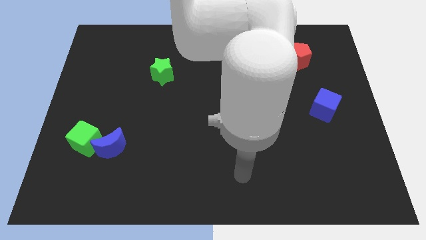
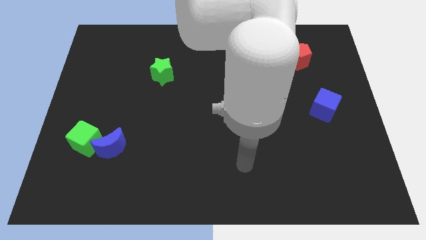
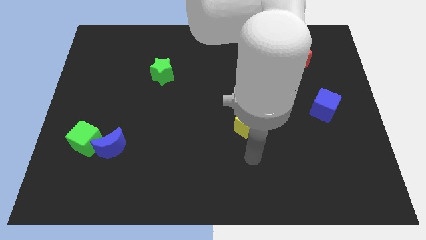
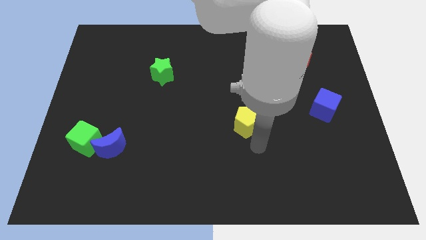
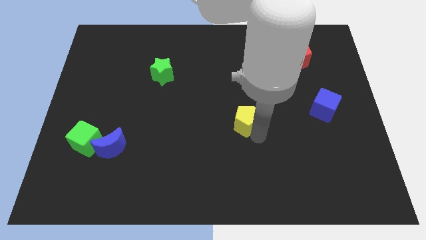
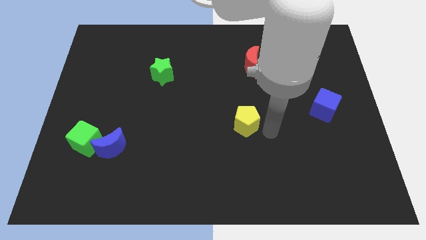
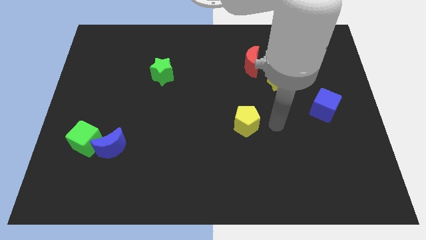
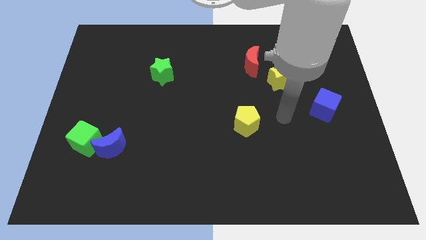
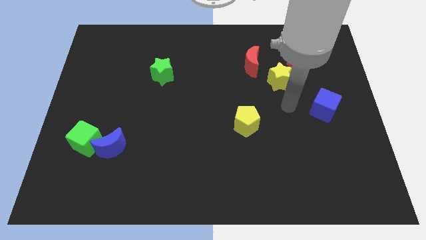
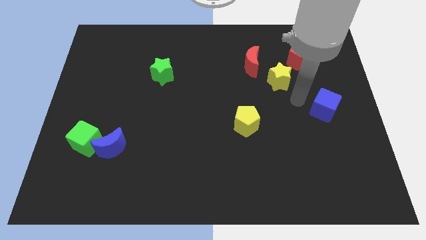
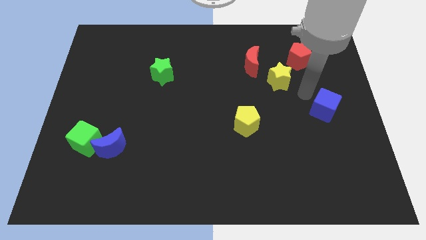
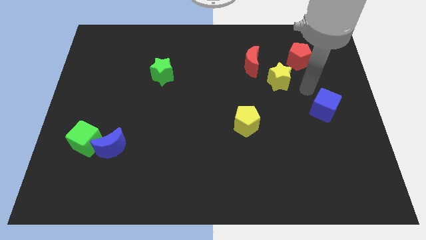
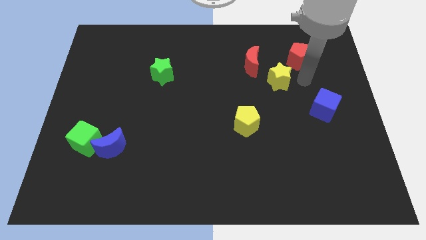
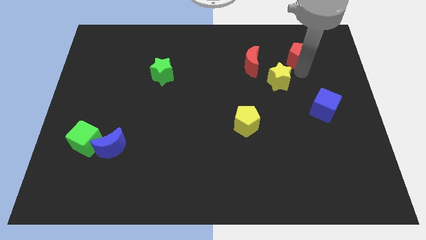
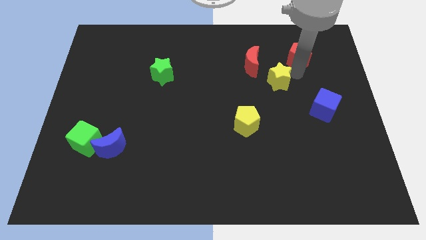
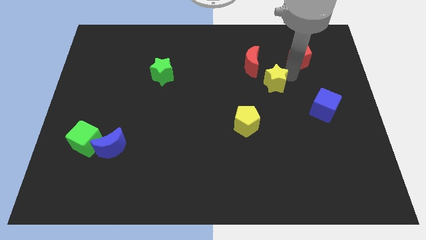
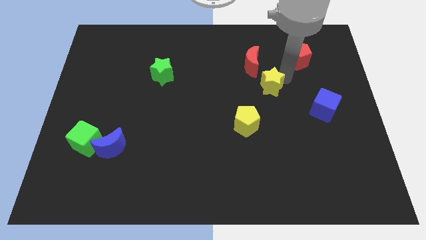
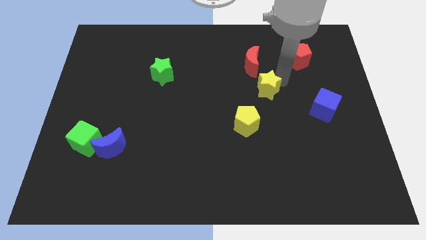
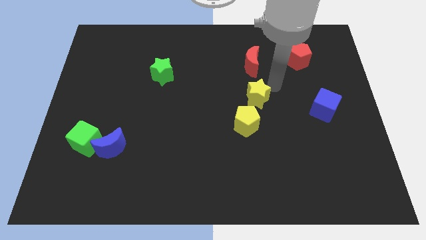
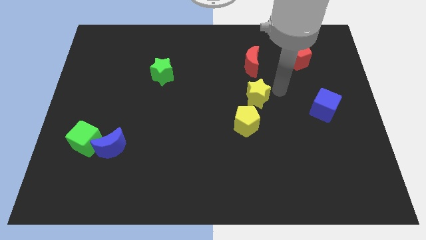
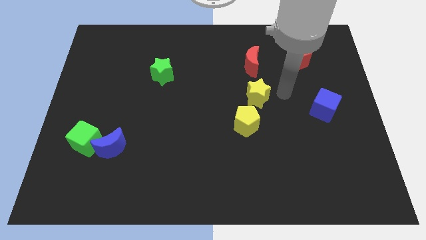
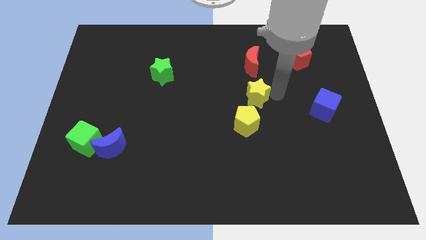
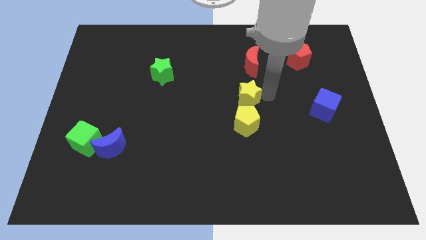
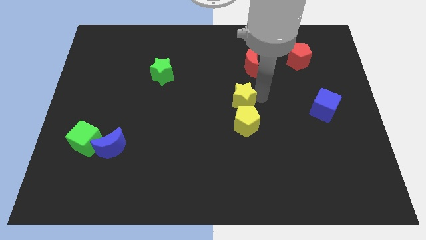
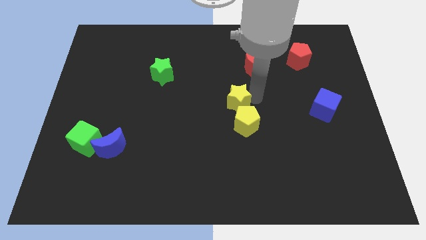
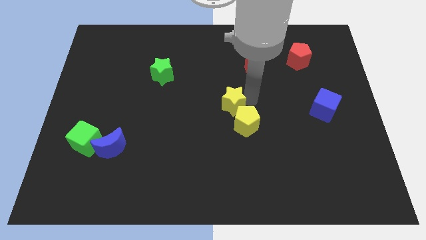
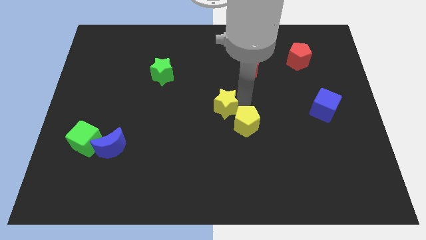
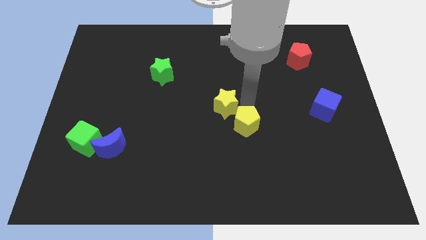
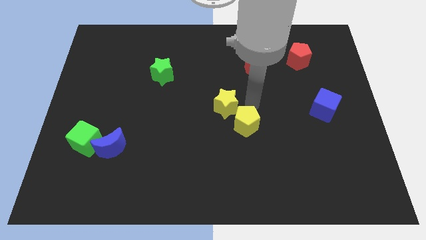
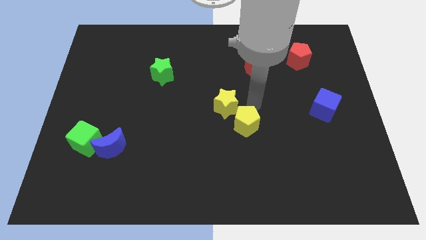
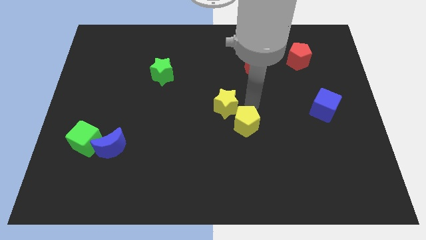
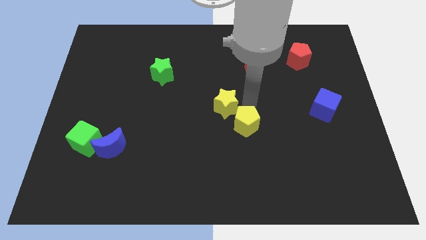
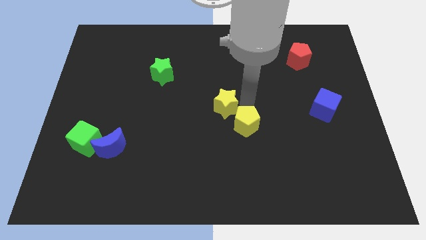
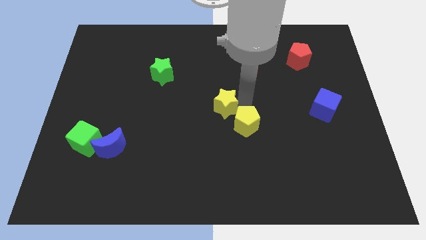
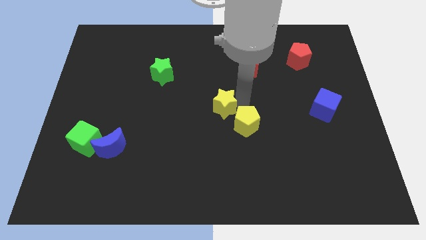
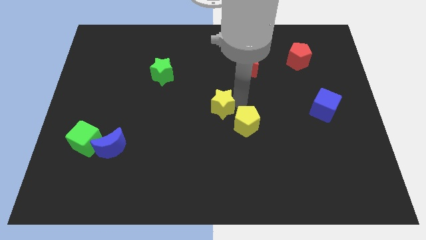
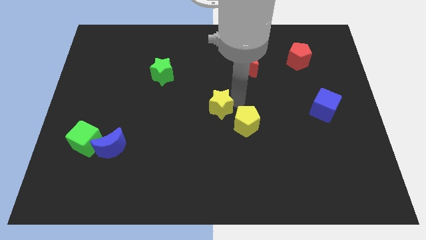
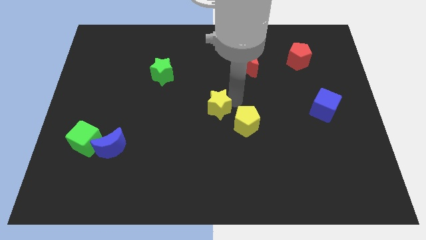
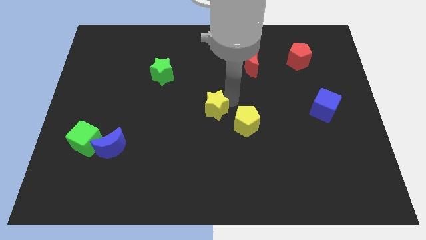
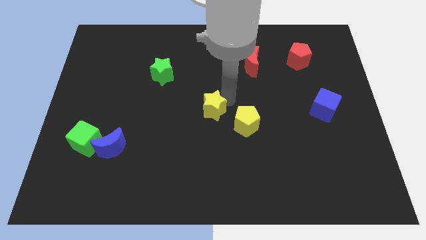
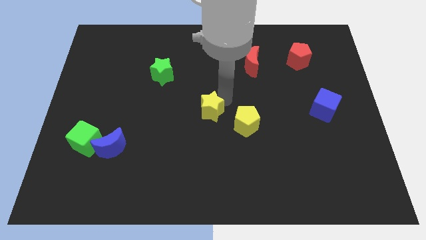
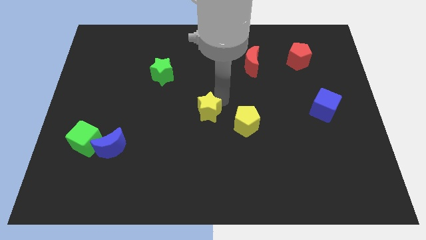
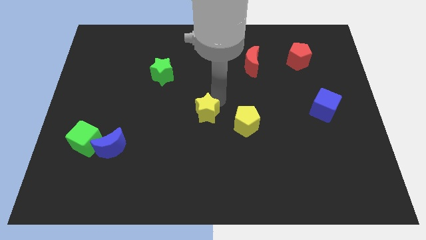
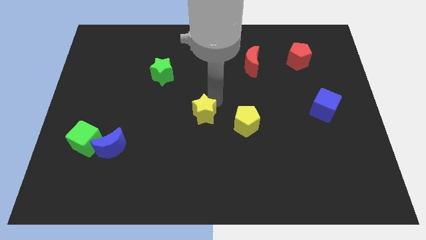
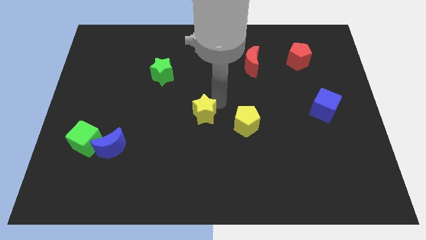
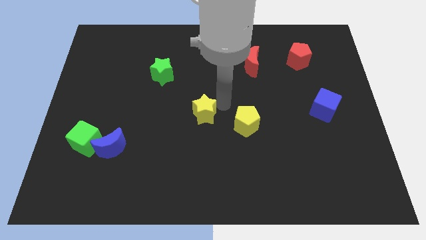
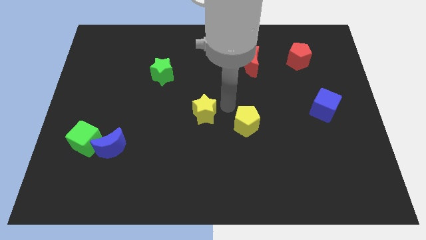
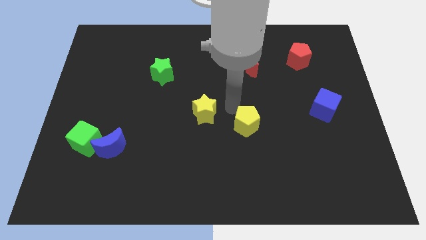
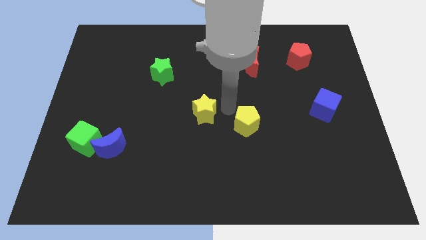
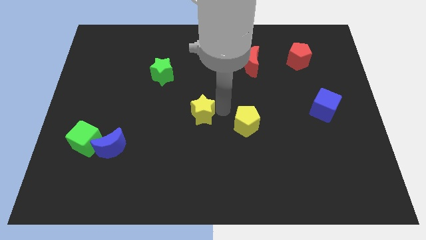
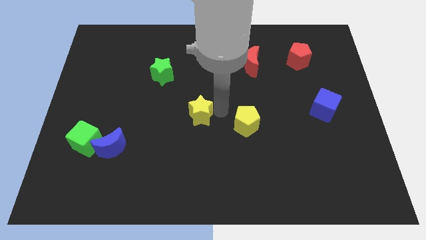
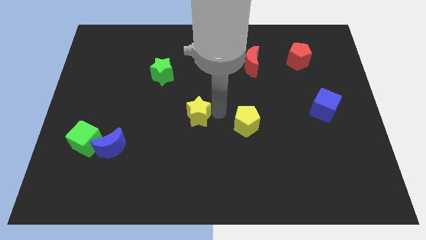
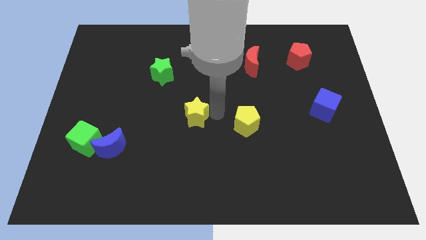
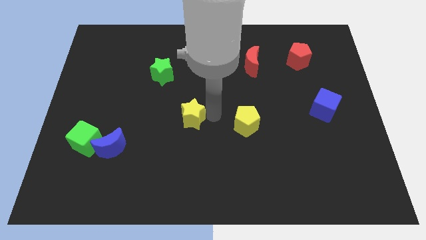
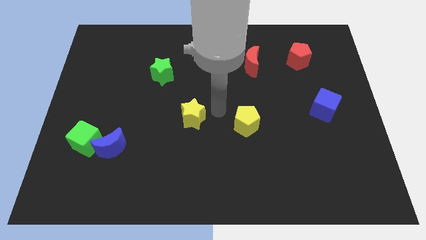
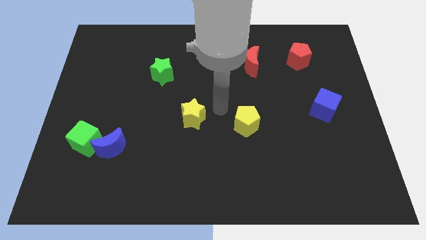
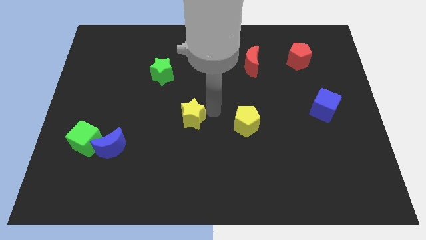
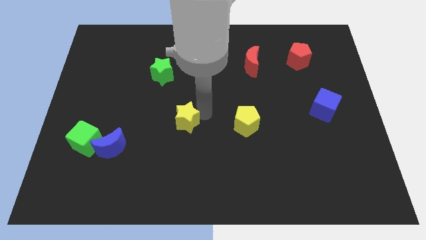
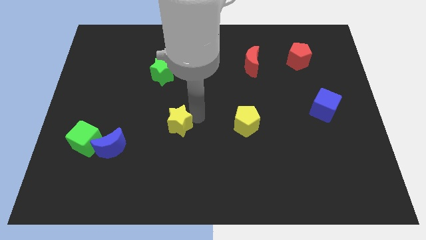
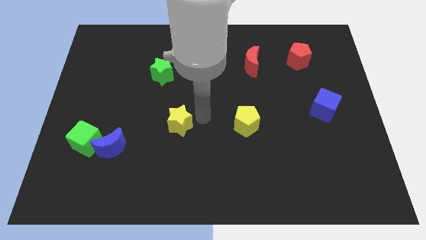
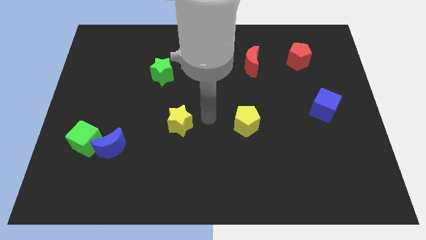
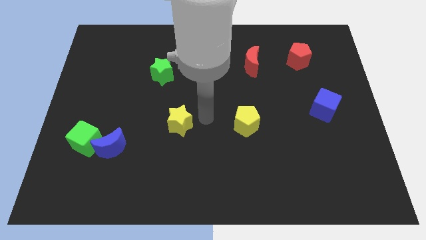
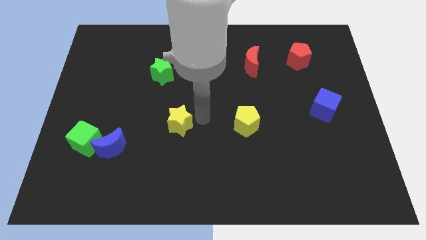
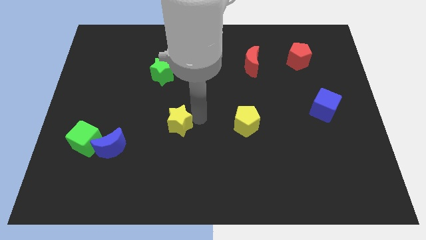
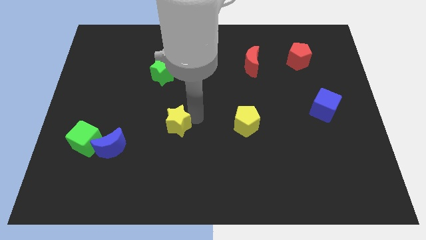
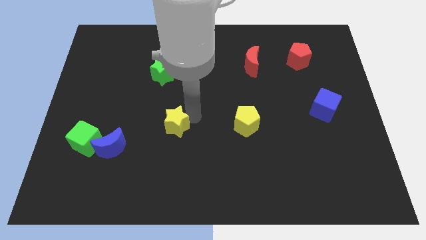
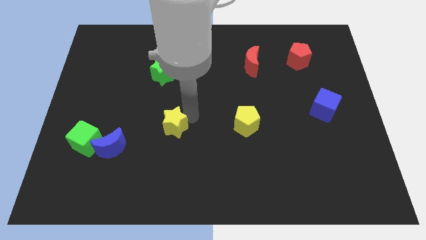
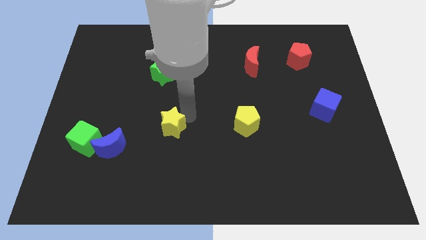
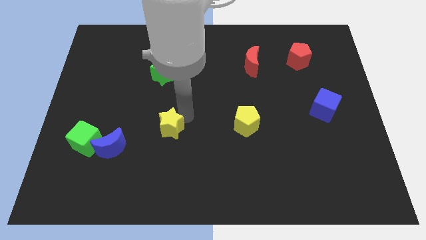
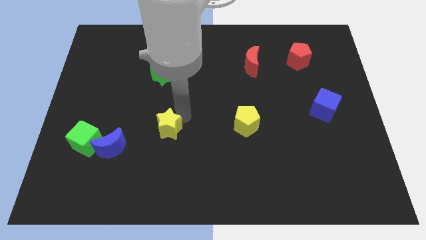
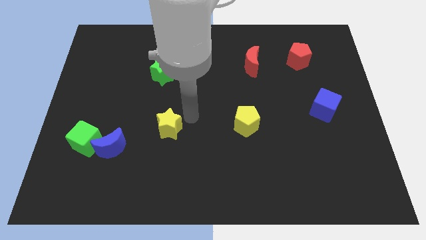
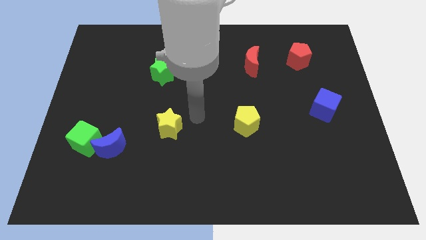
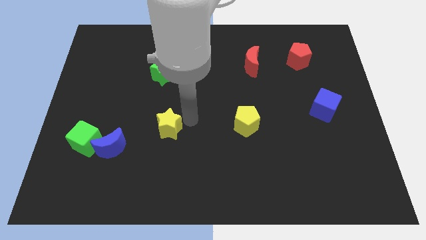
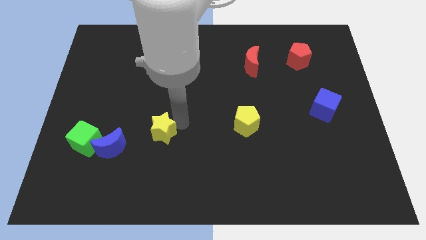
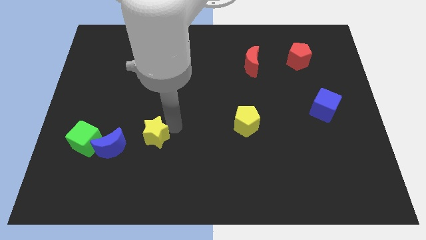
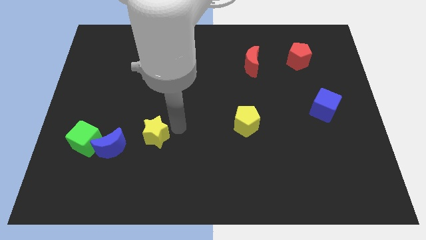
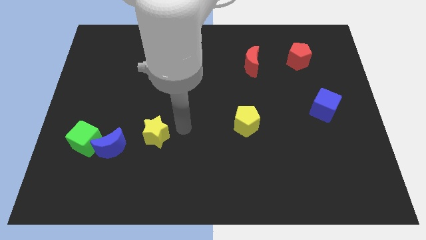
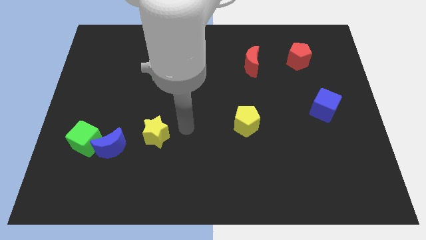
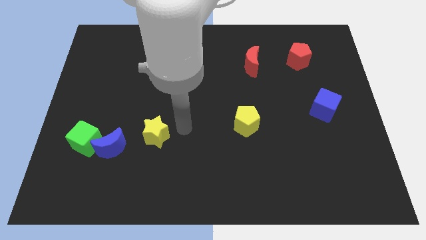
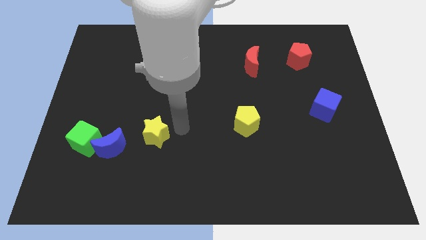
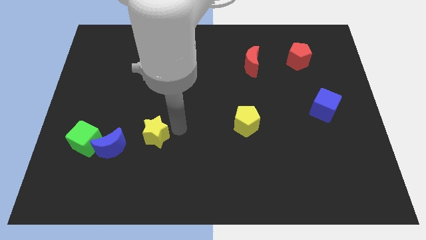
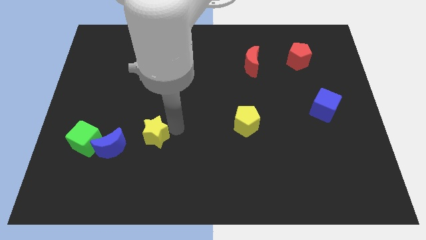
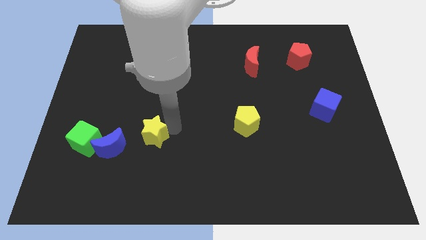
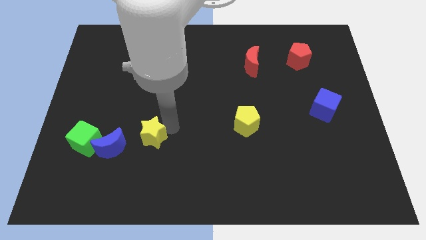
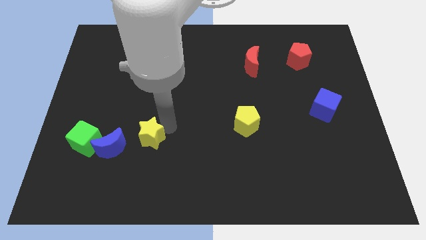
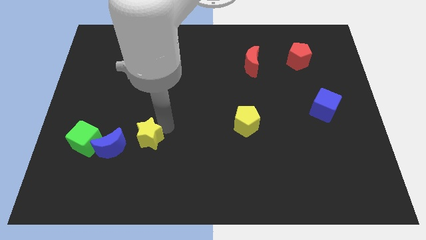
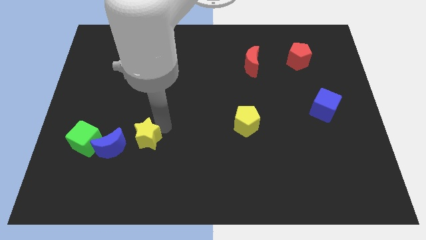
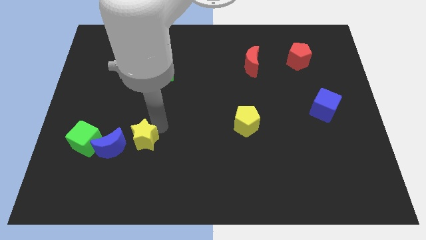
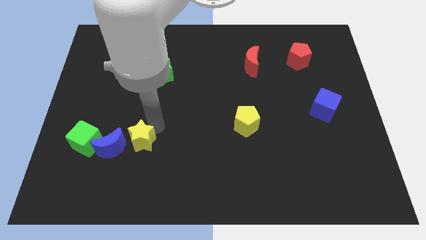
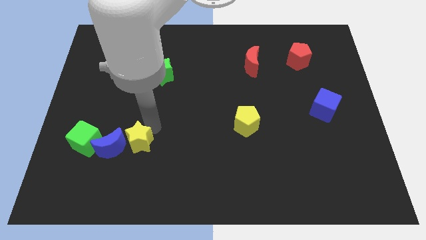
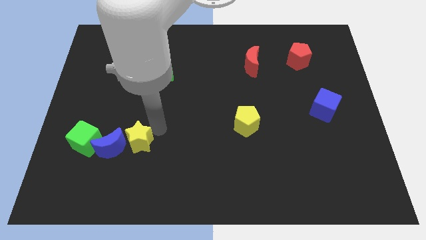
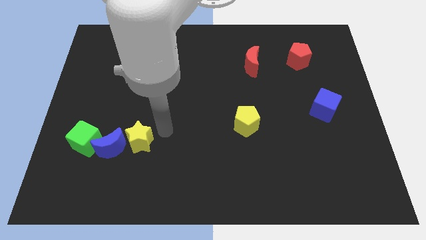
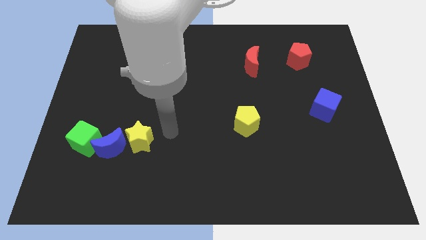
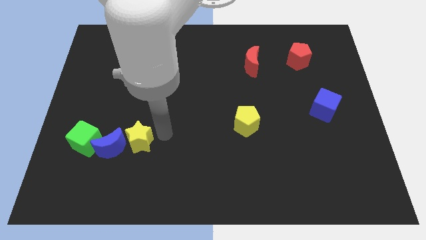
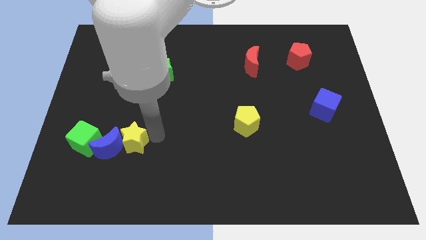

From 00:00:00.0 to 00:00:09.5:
push the yellow star to the blue moon
